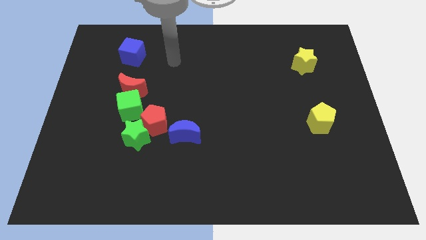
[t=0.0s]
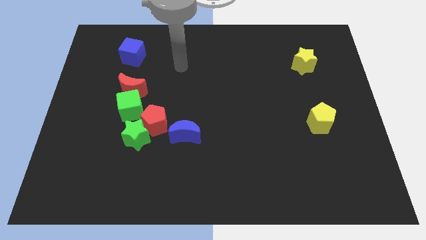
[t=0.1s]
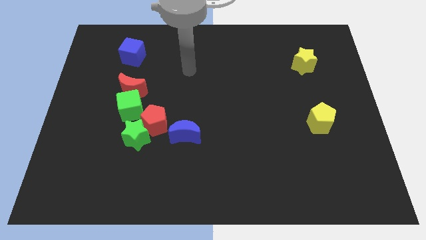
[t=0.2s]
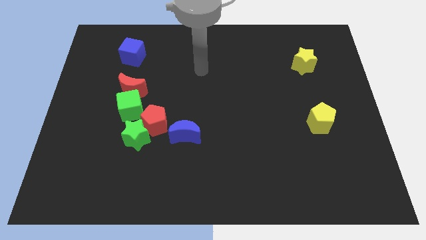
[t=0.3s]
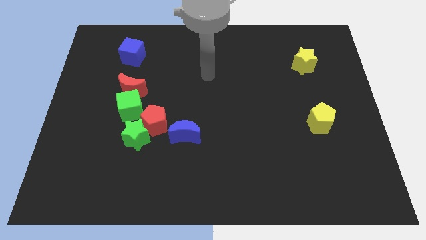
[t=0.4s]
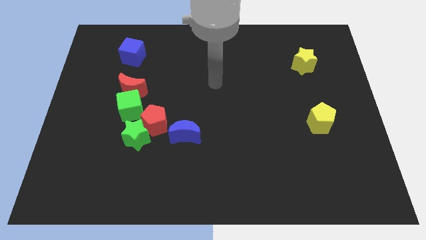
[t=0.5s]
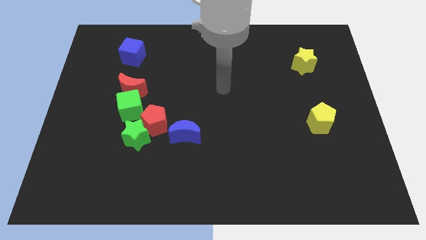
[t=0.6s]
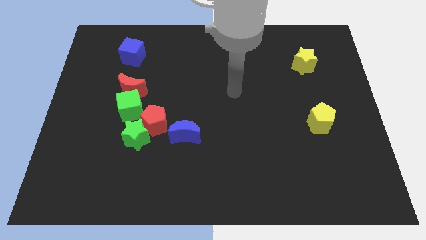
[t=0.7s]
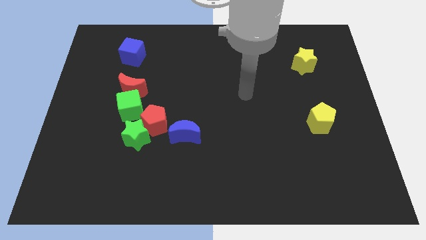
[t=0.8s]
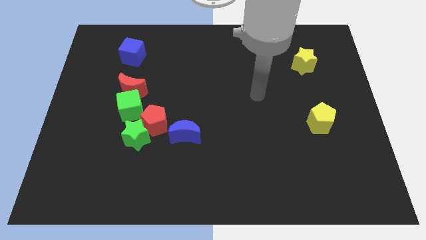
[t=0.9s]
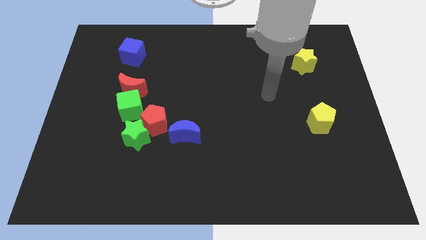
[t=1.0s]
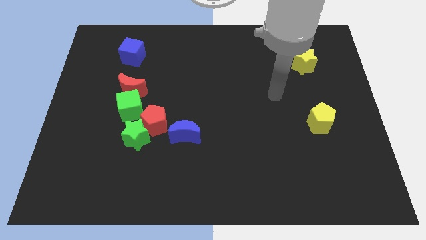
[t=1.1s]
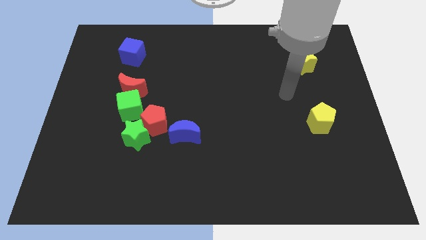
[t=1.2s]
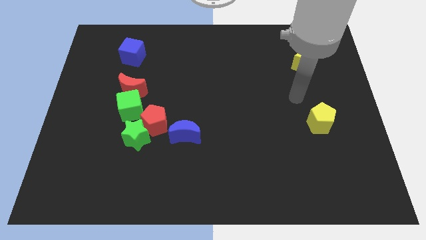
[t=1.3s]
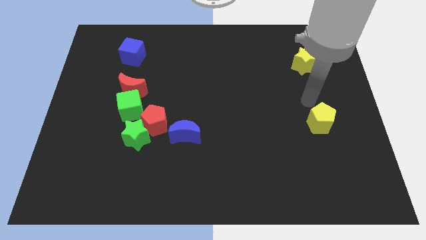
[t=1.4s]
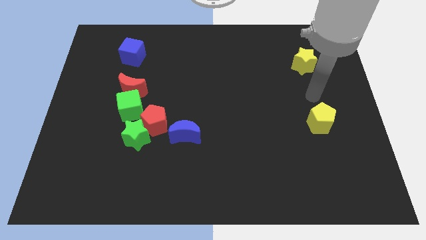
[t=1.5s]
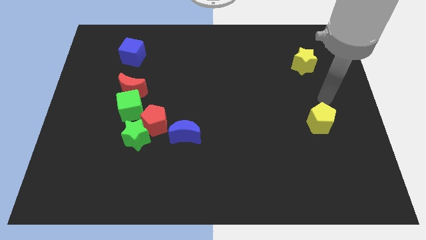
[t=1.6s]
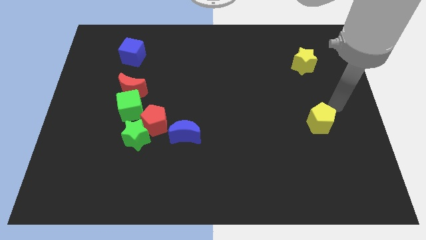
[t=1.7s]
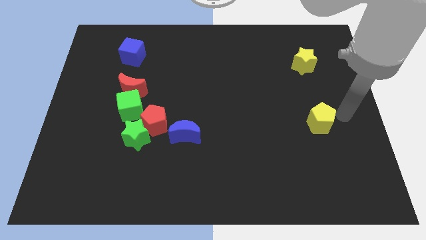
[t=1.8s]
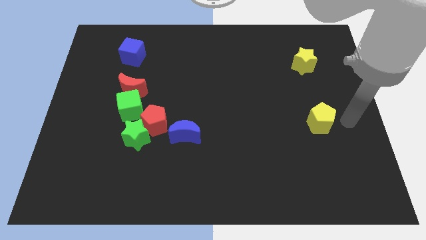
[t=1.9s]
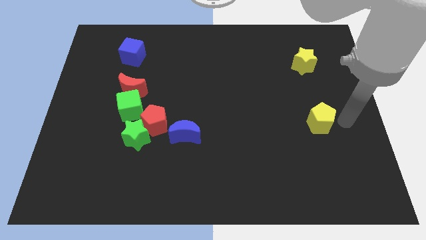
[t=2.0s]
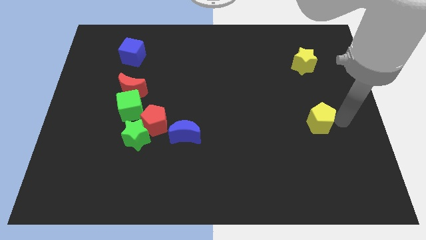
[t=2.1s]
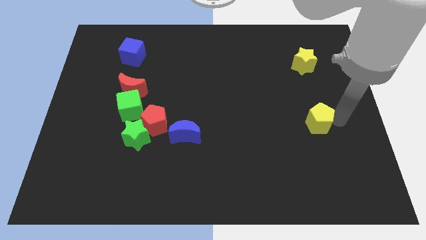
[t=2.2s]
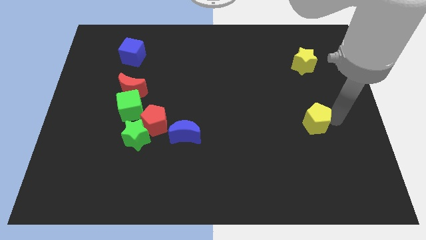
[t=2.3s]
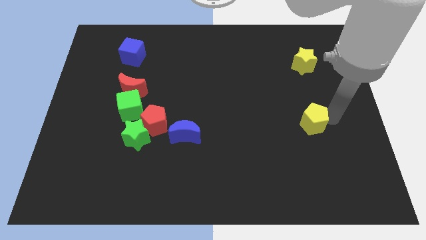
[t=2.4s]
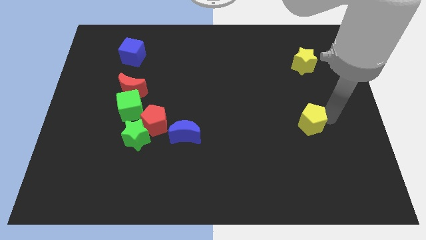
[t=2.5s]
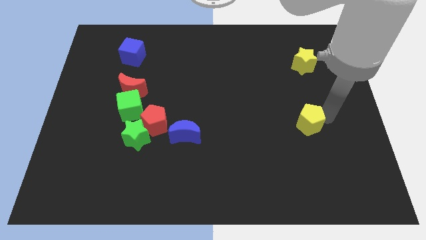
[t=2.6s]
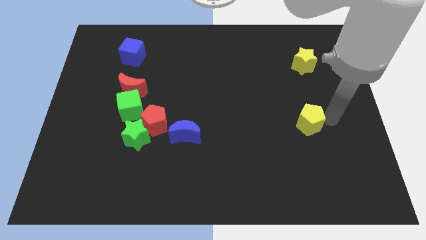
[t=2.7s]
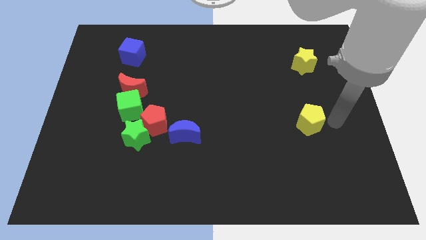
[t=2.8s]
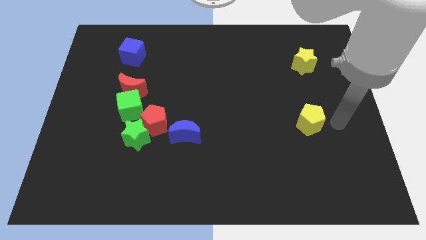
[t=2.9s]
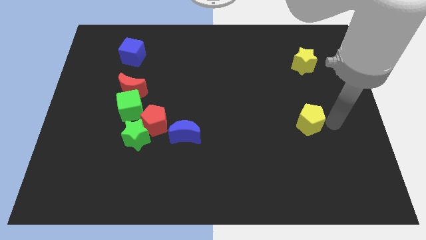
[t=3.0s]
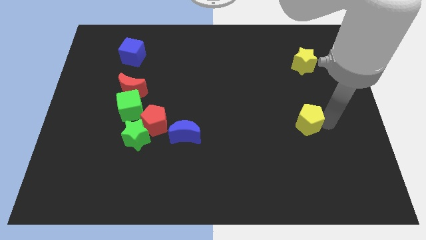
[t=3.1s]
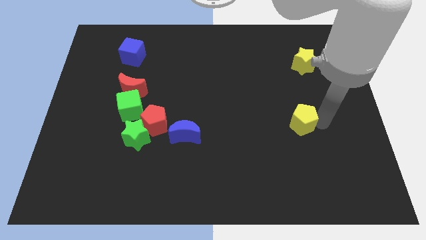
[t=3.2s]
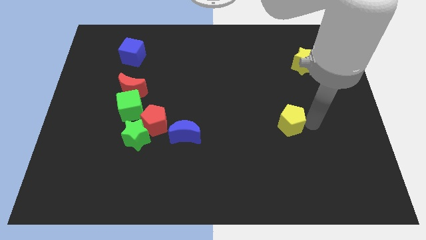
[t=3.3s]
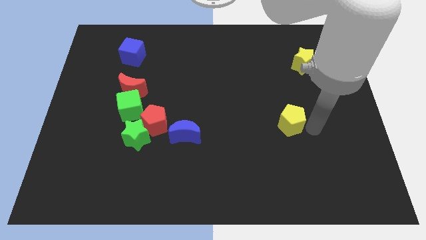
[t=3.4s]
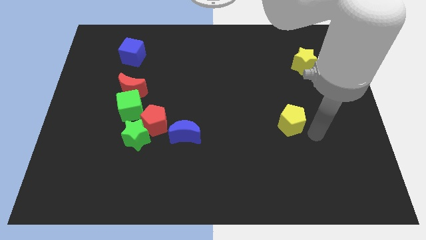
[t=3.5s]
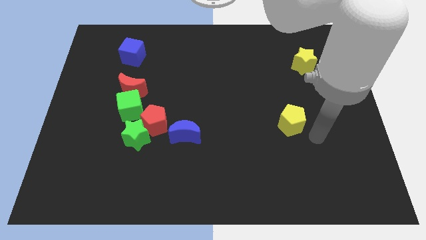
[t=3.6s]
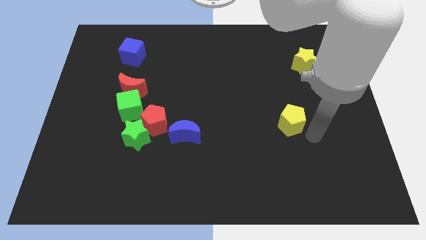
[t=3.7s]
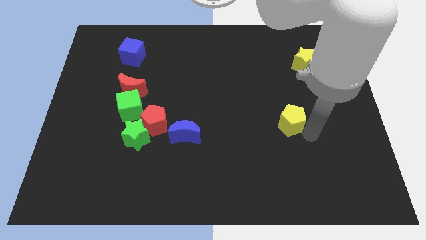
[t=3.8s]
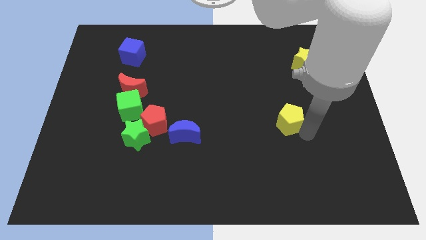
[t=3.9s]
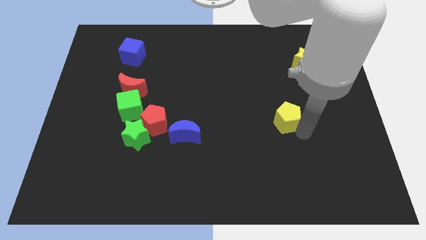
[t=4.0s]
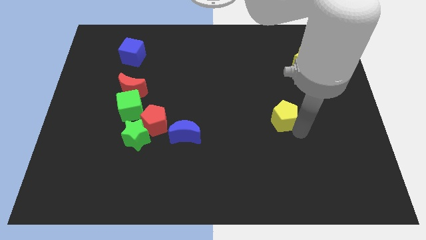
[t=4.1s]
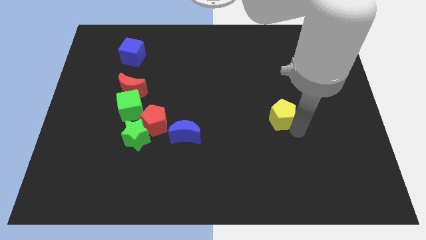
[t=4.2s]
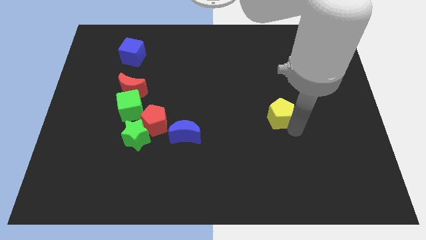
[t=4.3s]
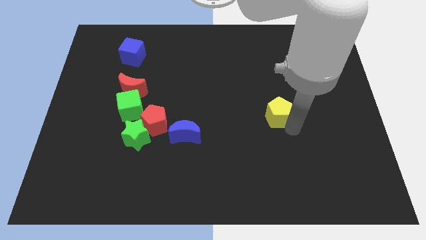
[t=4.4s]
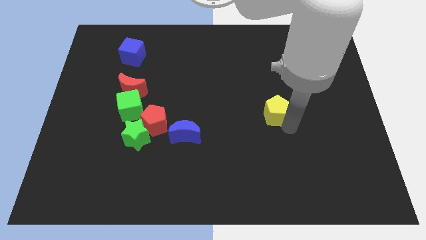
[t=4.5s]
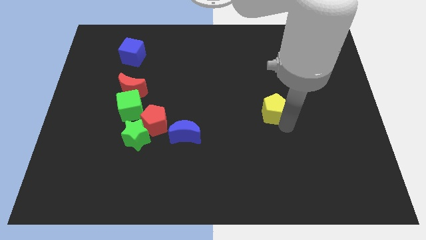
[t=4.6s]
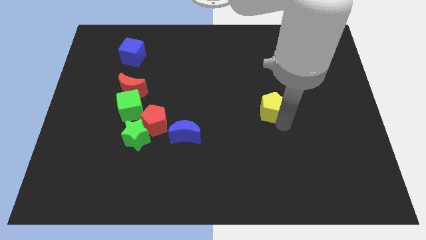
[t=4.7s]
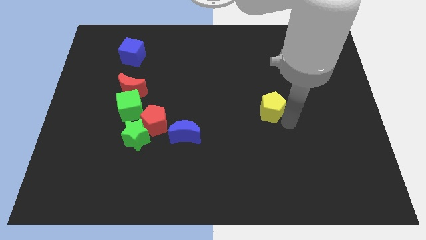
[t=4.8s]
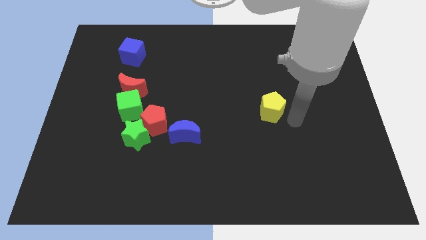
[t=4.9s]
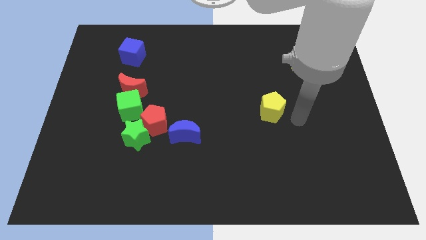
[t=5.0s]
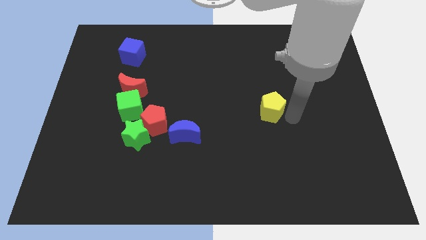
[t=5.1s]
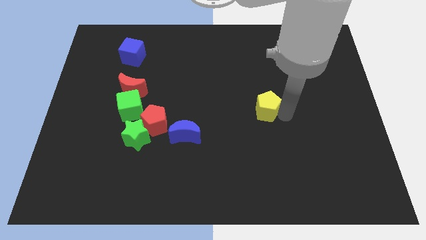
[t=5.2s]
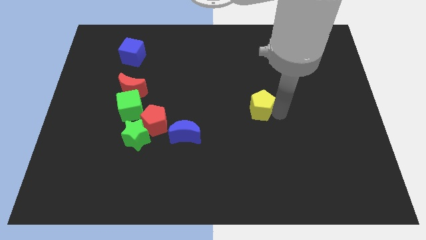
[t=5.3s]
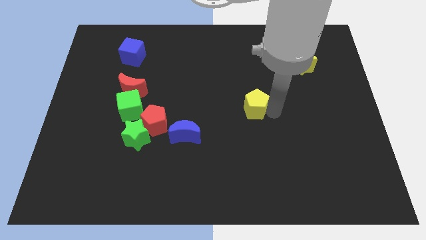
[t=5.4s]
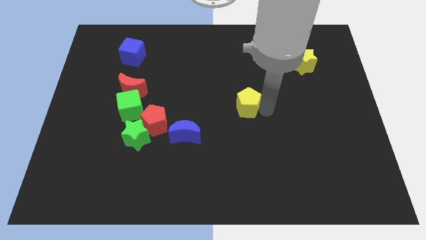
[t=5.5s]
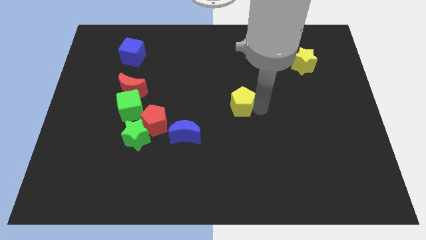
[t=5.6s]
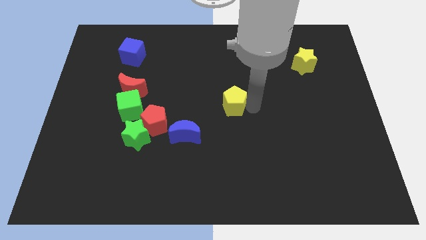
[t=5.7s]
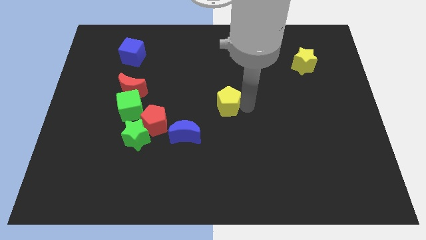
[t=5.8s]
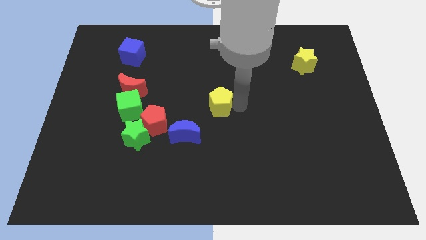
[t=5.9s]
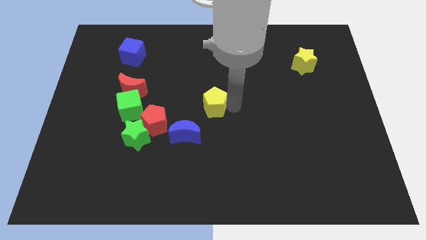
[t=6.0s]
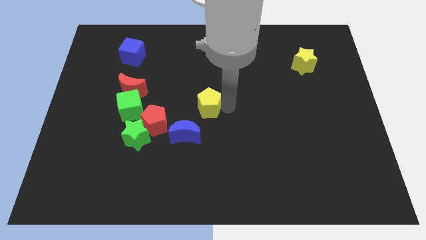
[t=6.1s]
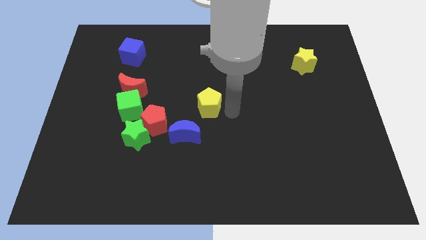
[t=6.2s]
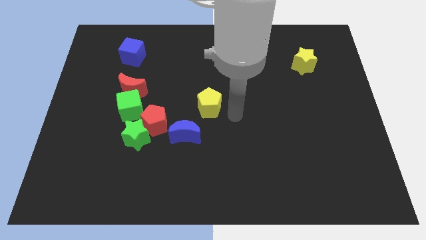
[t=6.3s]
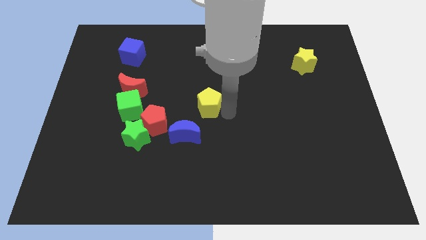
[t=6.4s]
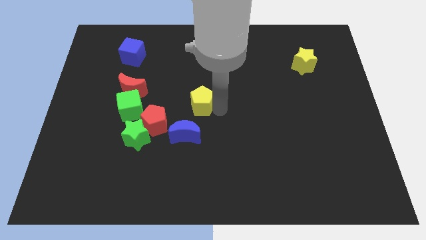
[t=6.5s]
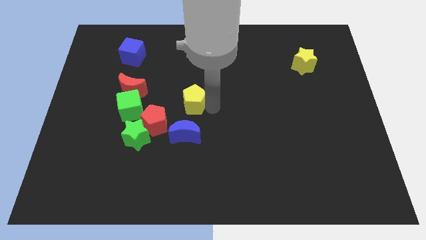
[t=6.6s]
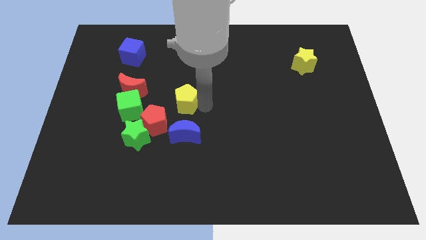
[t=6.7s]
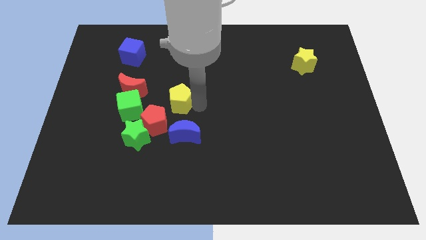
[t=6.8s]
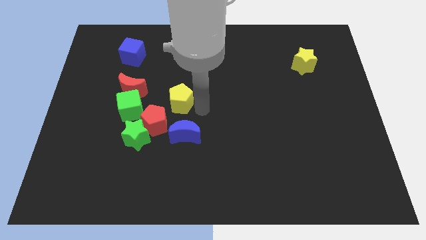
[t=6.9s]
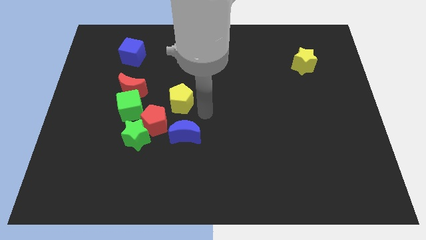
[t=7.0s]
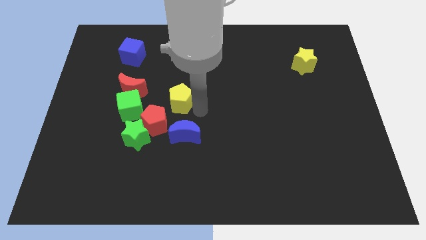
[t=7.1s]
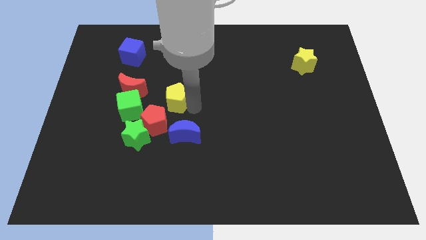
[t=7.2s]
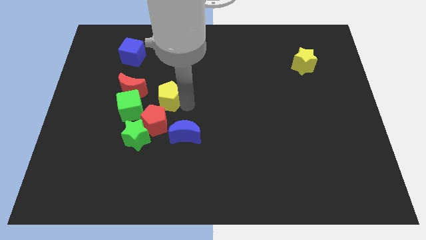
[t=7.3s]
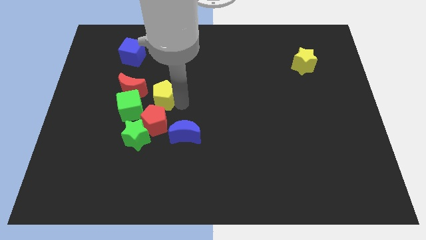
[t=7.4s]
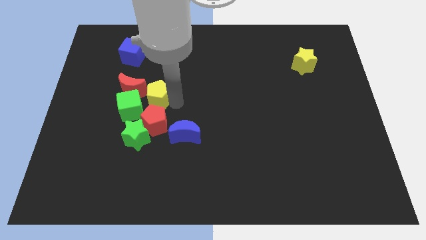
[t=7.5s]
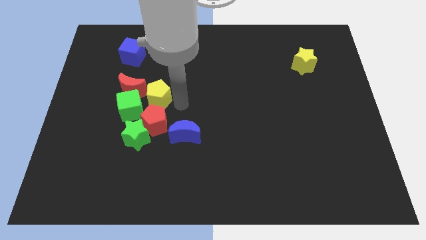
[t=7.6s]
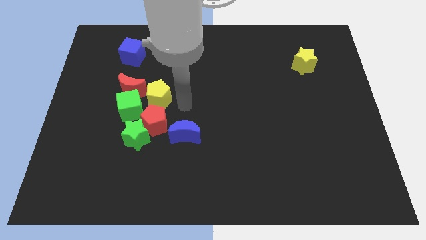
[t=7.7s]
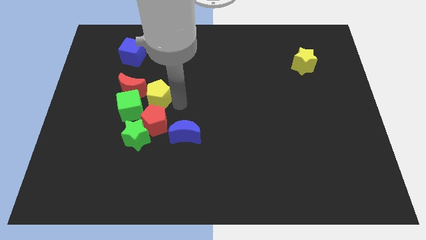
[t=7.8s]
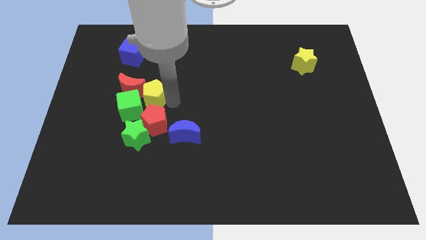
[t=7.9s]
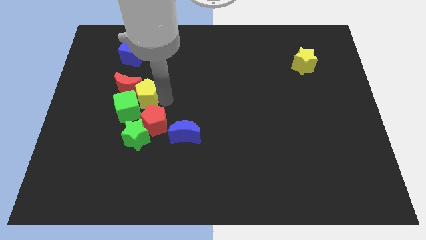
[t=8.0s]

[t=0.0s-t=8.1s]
slide the yellow pentagon towards the red moon
